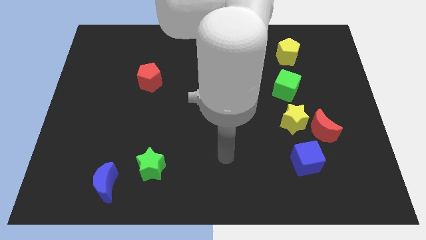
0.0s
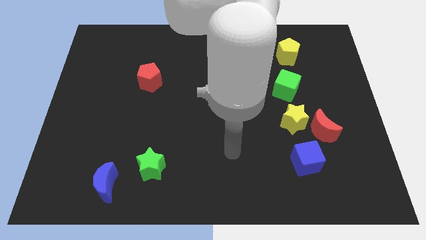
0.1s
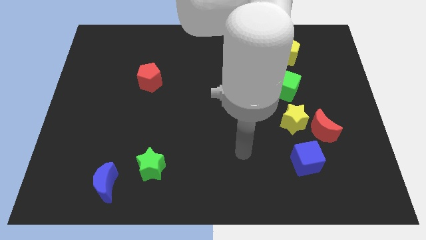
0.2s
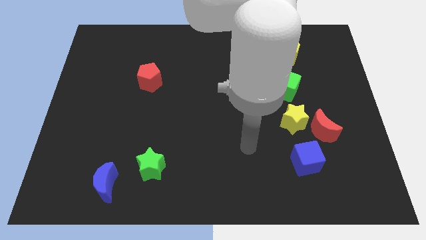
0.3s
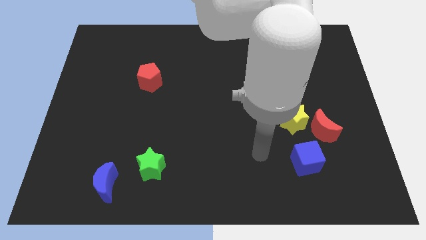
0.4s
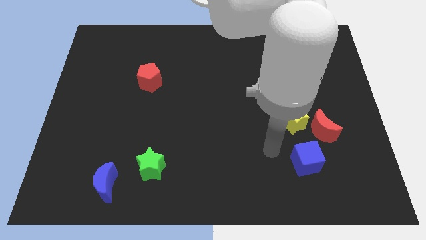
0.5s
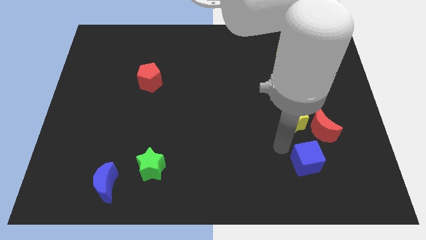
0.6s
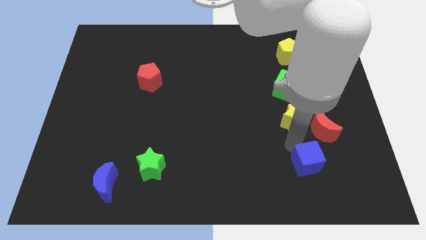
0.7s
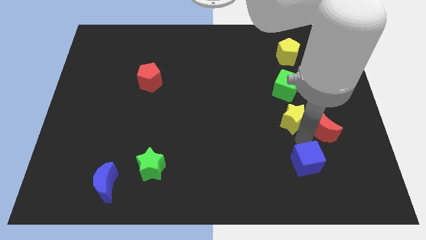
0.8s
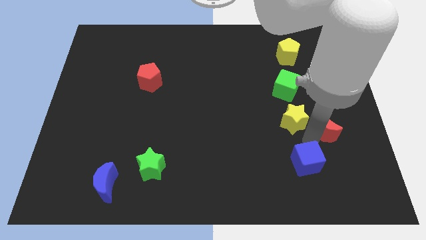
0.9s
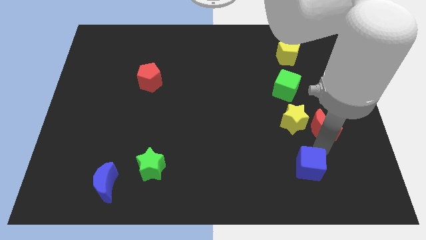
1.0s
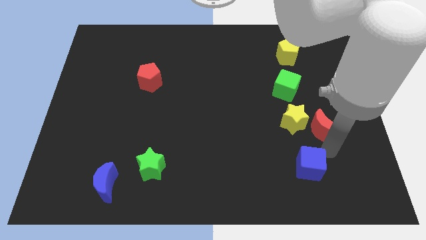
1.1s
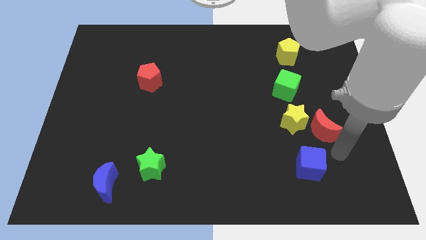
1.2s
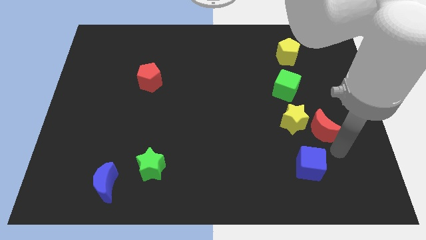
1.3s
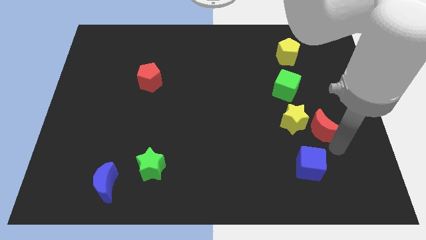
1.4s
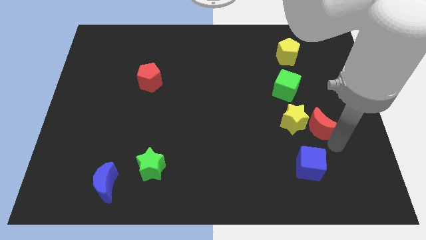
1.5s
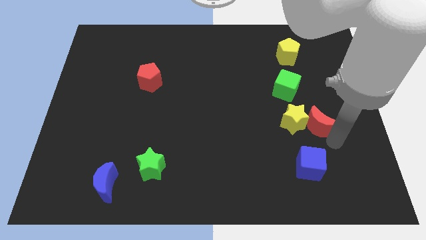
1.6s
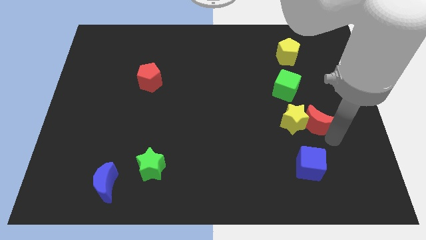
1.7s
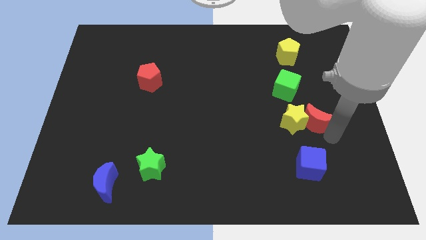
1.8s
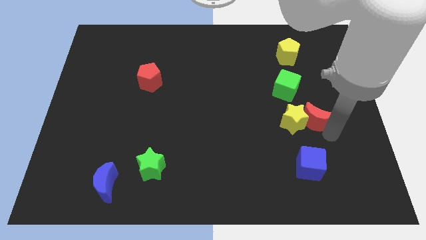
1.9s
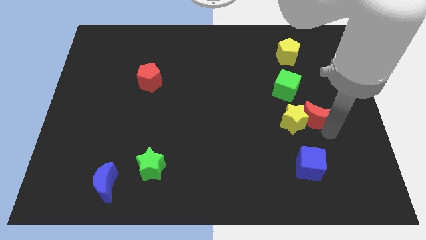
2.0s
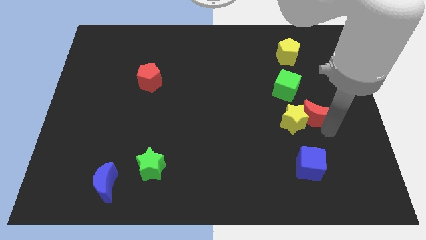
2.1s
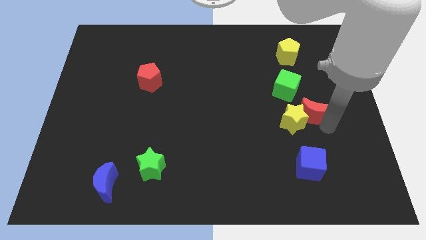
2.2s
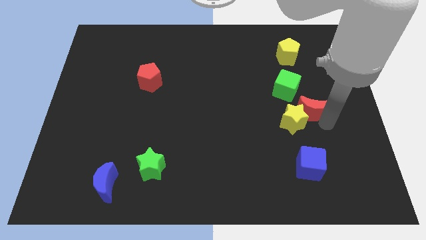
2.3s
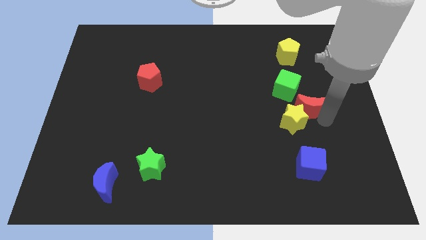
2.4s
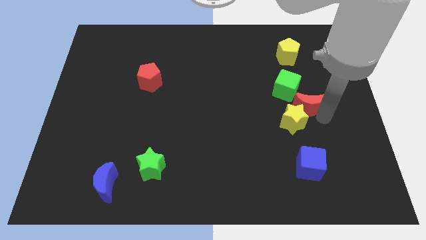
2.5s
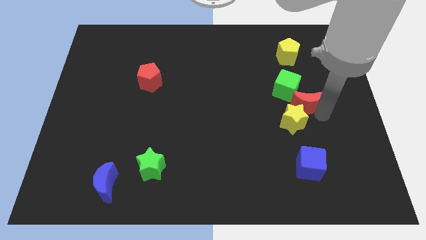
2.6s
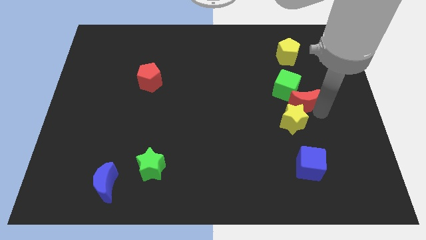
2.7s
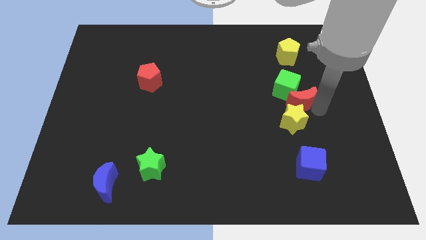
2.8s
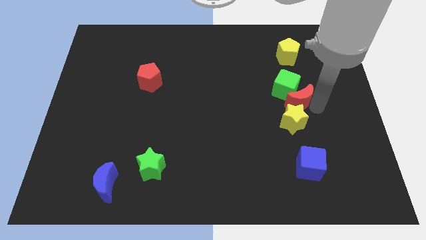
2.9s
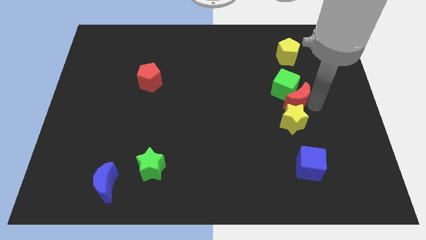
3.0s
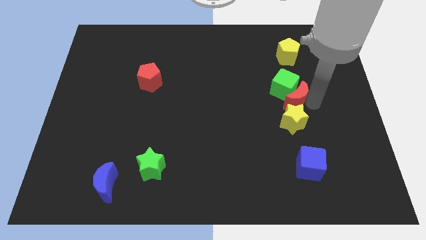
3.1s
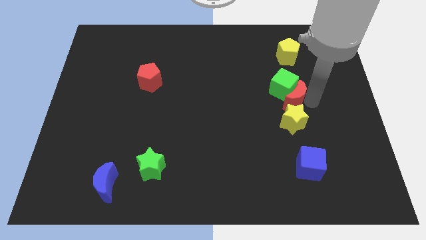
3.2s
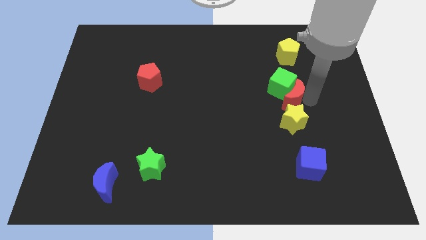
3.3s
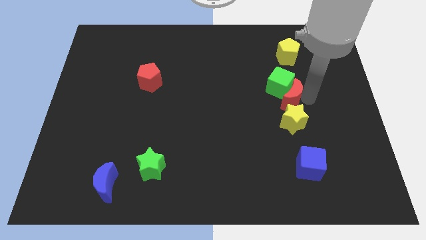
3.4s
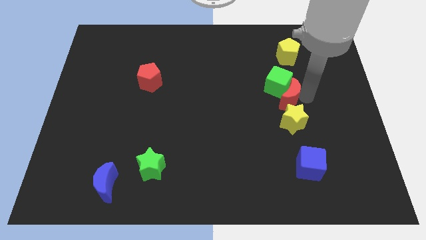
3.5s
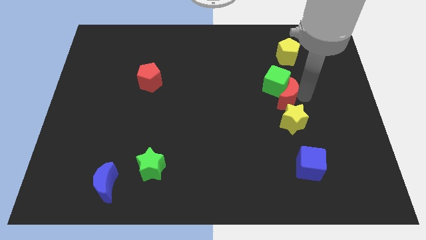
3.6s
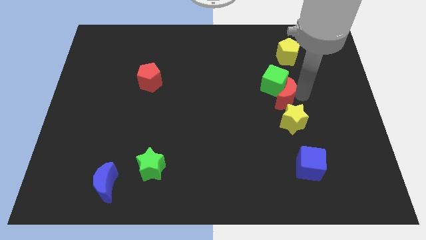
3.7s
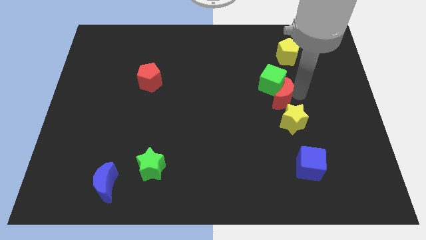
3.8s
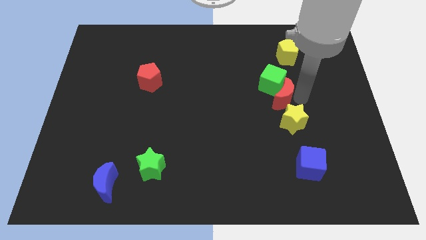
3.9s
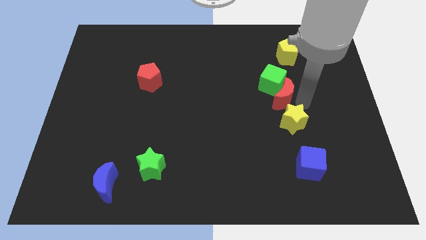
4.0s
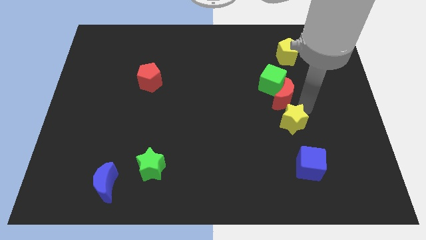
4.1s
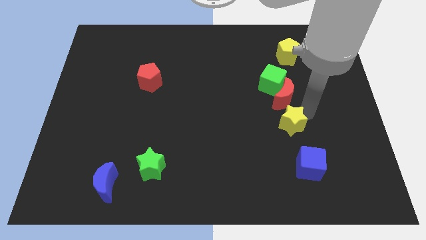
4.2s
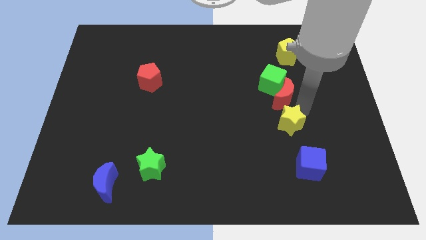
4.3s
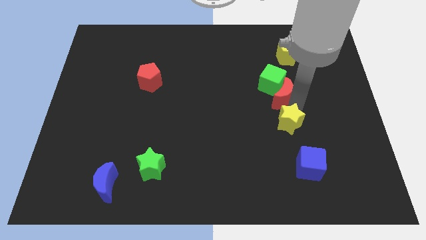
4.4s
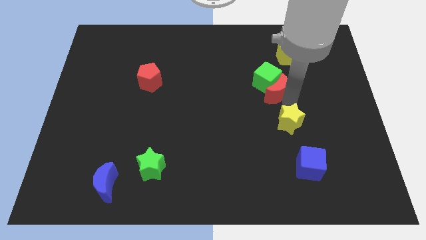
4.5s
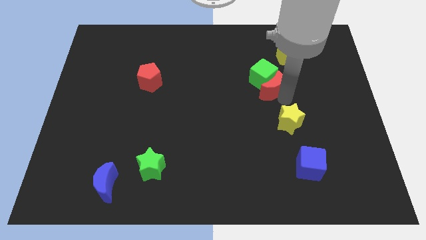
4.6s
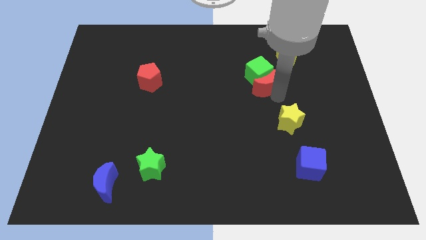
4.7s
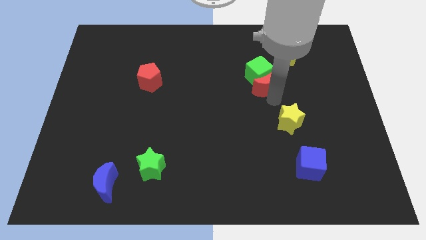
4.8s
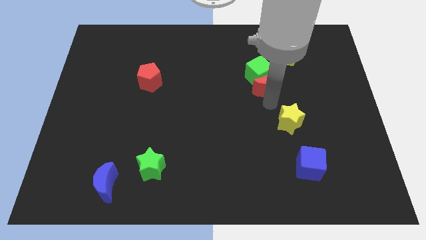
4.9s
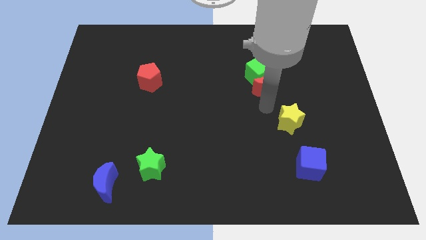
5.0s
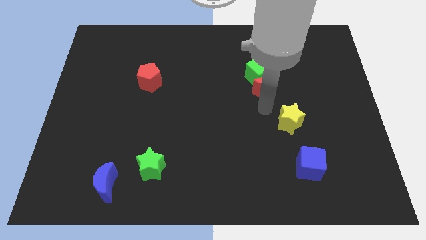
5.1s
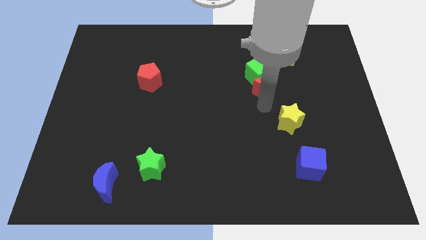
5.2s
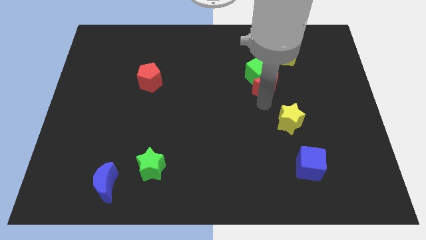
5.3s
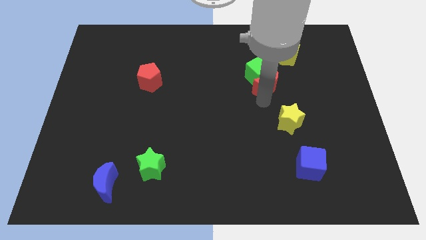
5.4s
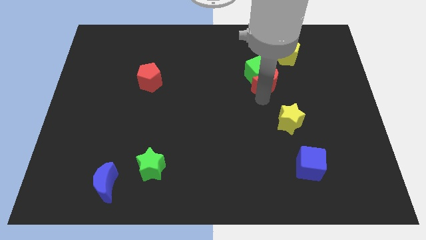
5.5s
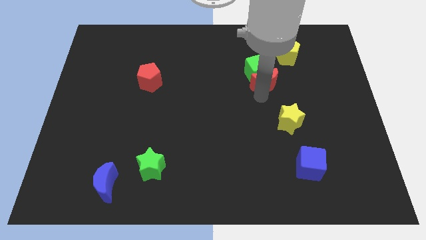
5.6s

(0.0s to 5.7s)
move the red moon diagonally down and to the left of the yellow pentagon

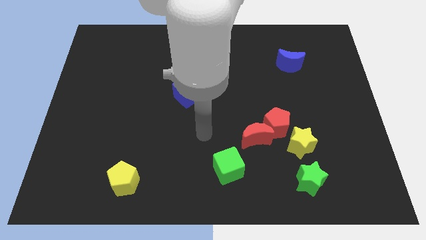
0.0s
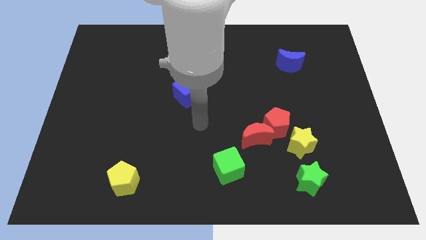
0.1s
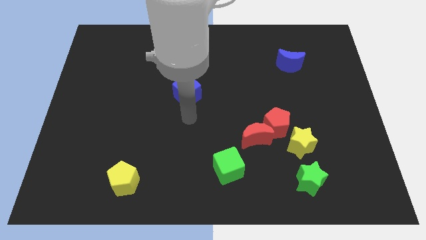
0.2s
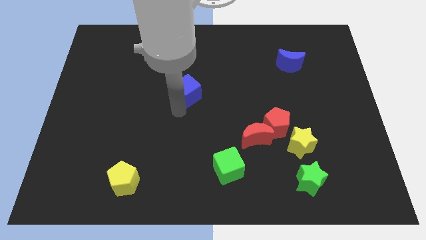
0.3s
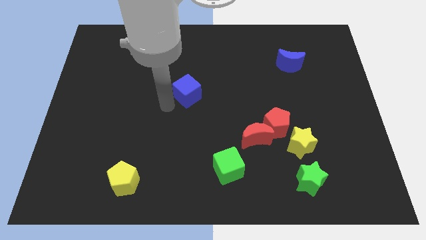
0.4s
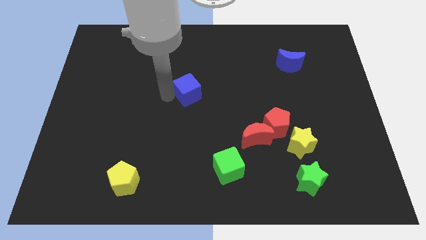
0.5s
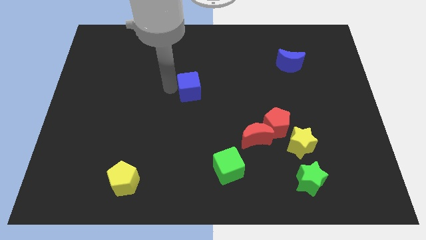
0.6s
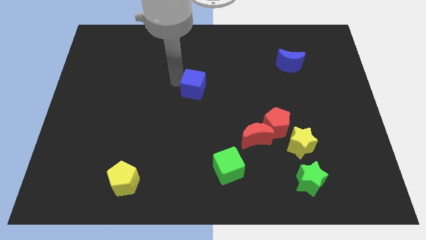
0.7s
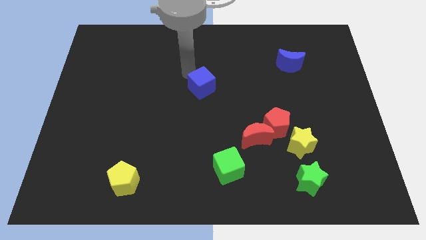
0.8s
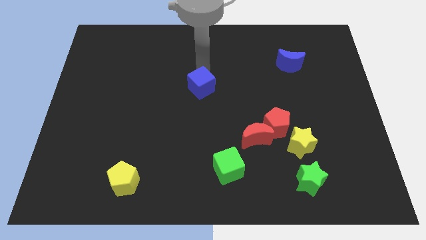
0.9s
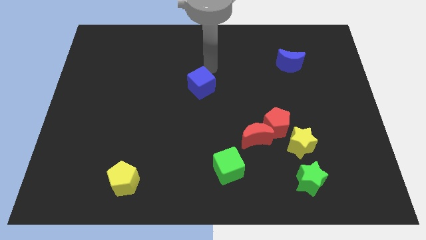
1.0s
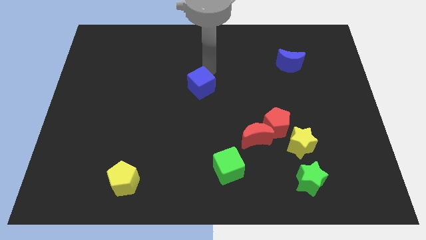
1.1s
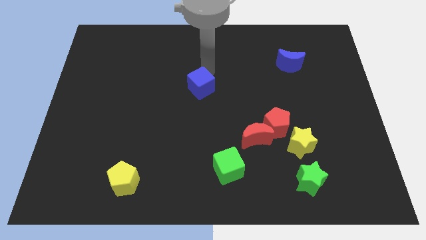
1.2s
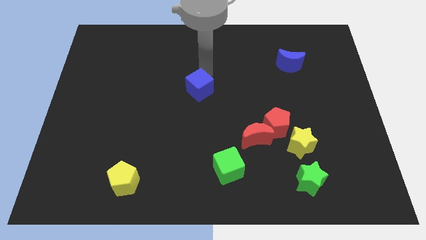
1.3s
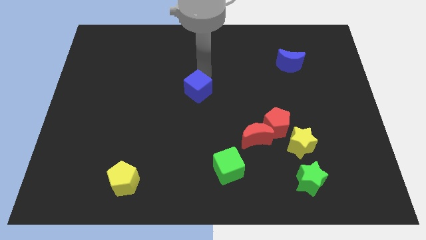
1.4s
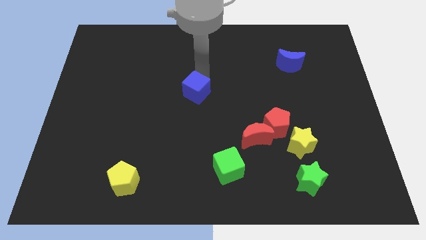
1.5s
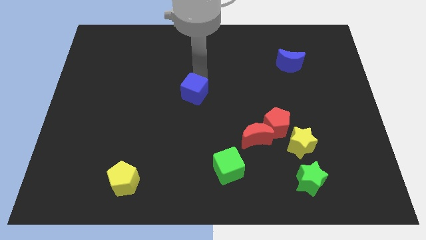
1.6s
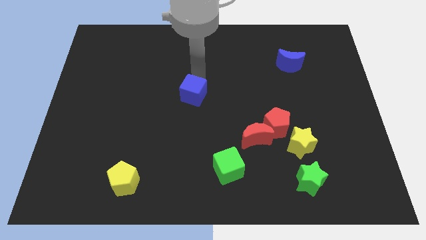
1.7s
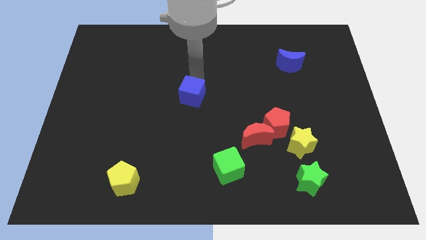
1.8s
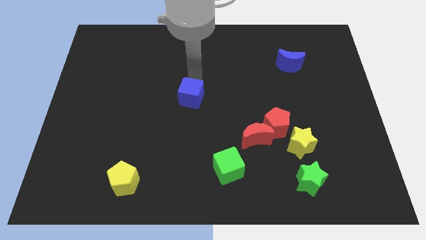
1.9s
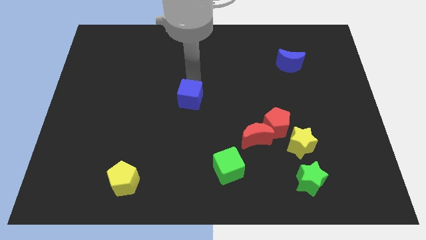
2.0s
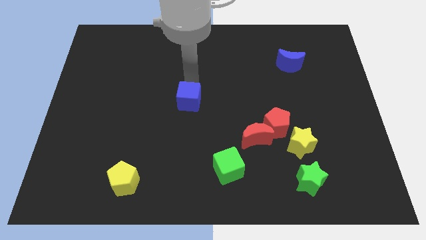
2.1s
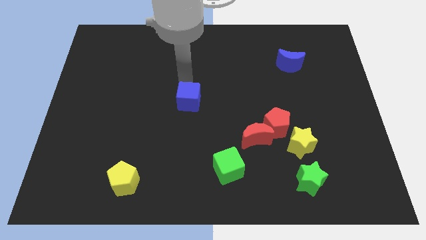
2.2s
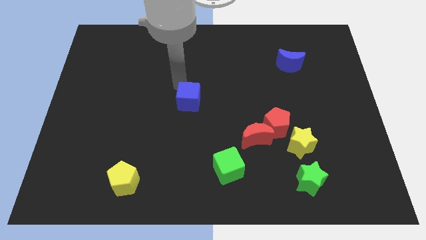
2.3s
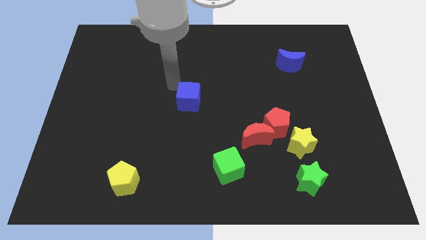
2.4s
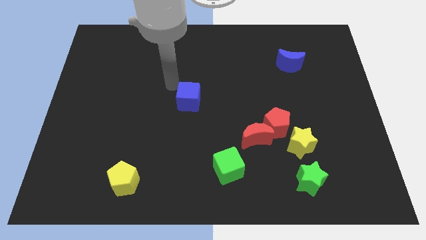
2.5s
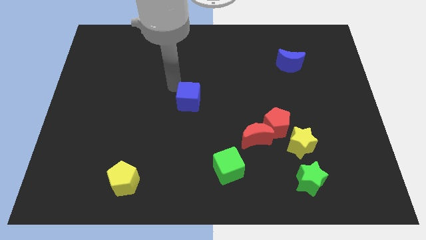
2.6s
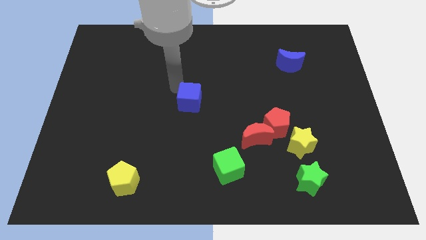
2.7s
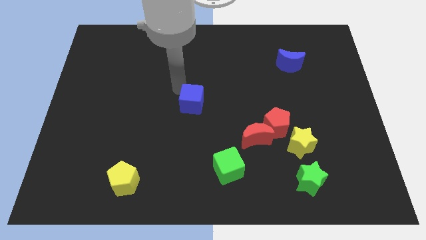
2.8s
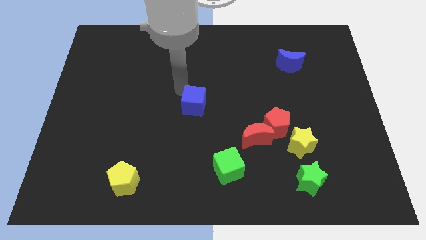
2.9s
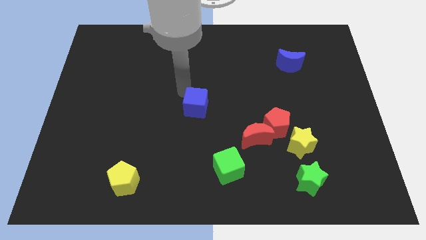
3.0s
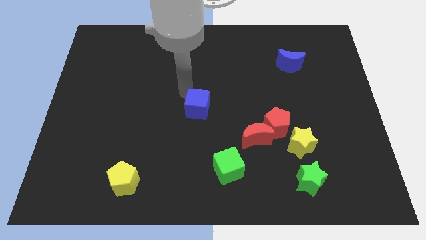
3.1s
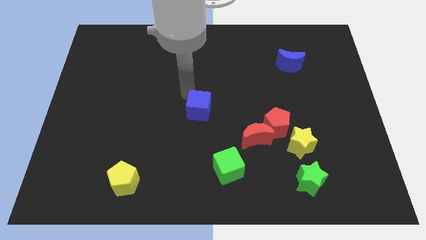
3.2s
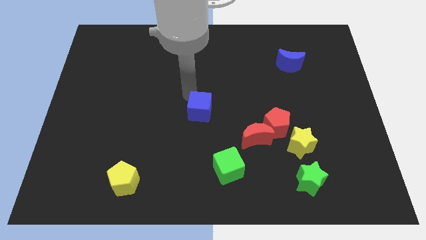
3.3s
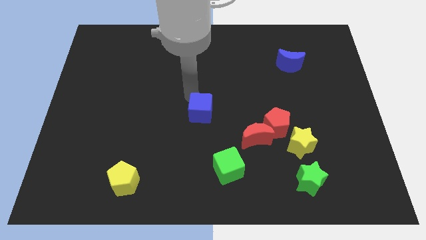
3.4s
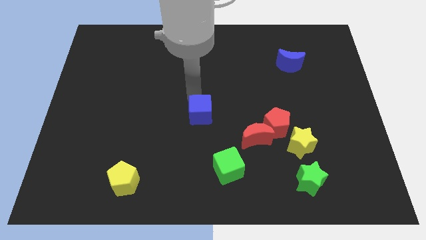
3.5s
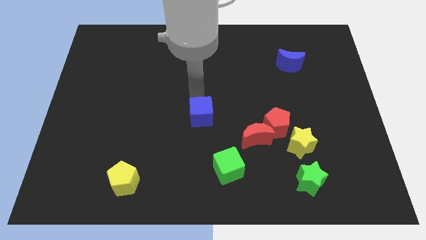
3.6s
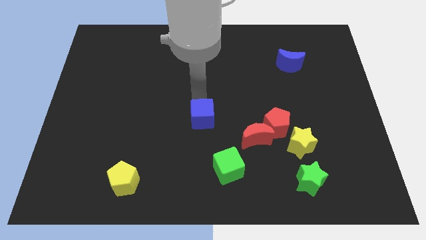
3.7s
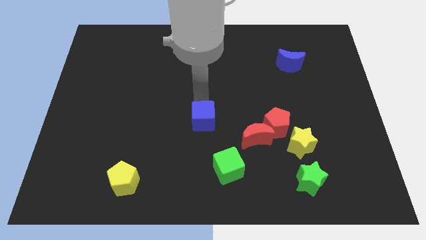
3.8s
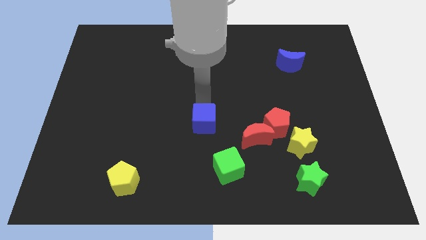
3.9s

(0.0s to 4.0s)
push the blue cube to the left side of the red pentagon
